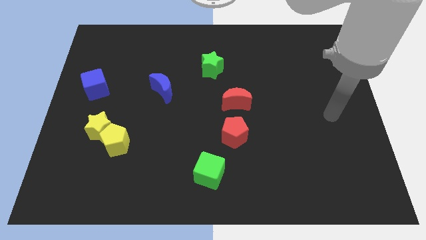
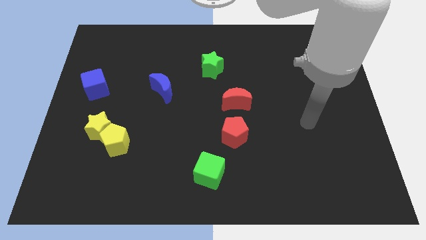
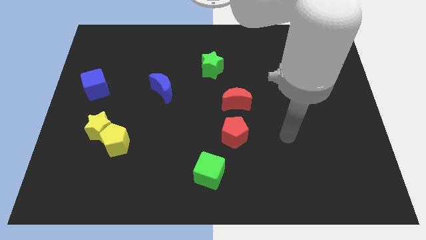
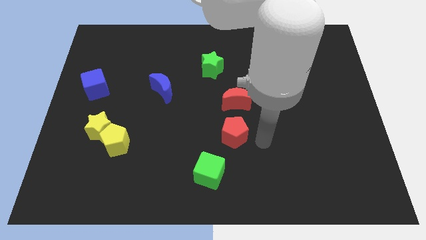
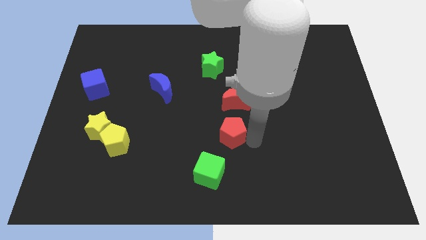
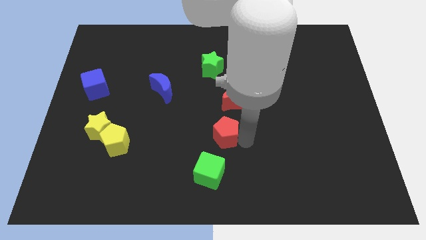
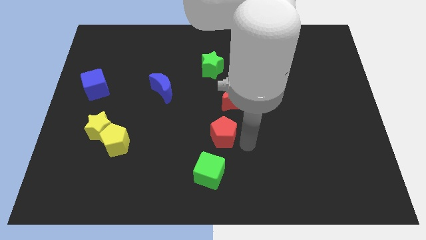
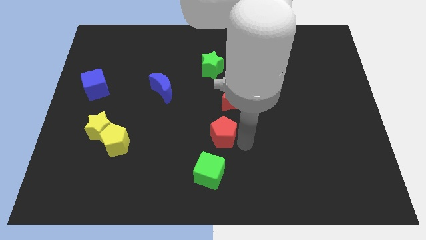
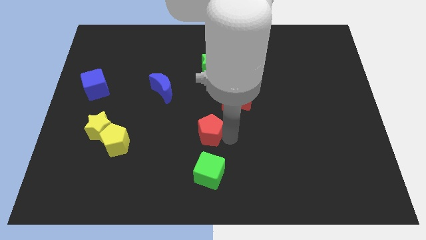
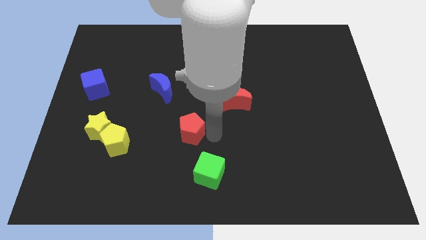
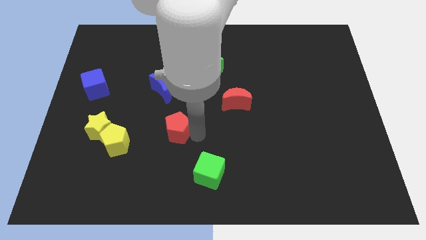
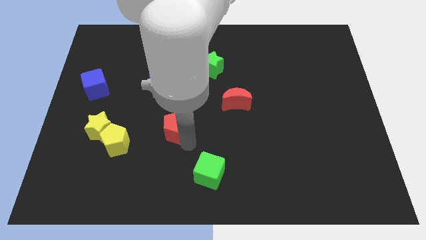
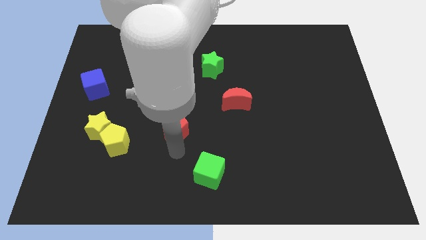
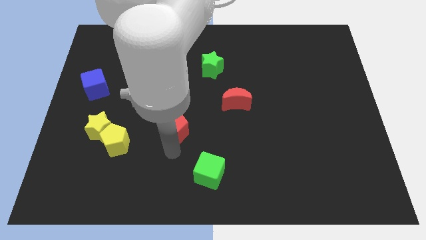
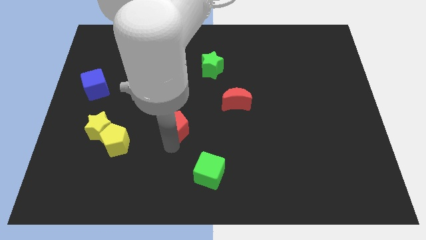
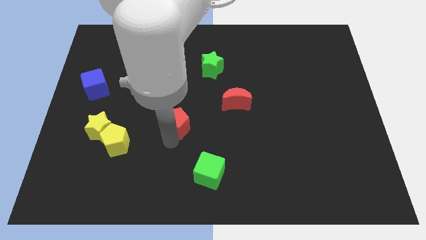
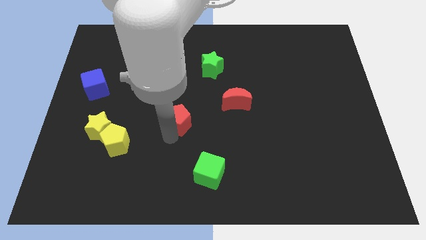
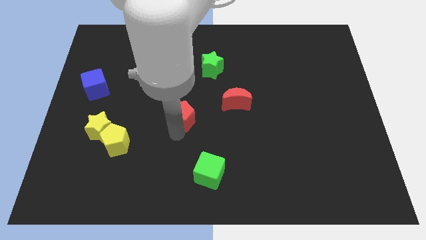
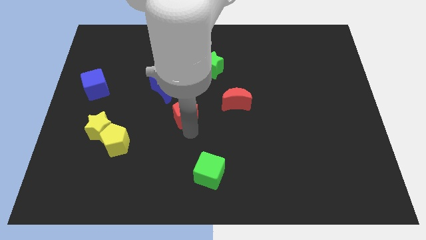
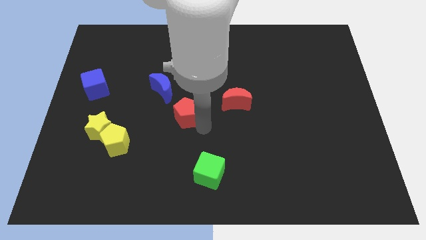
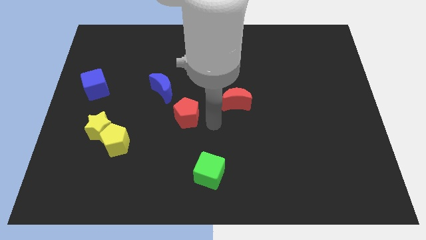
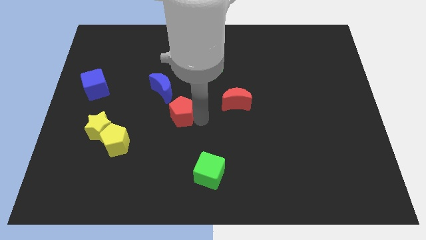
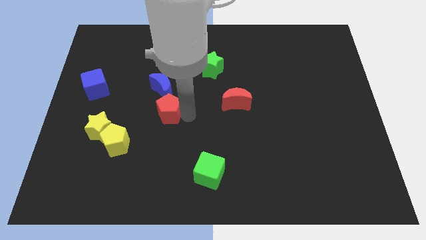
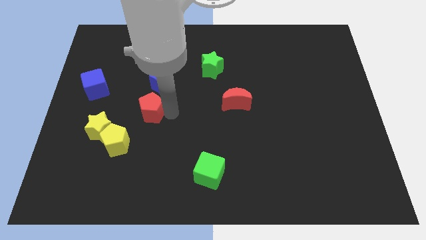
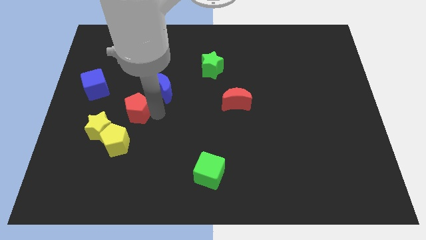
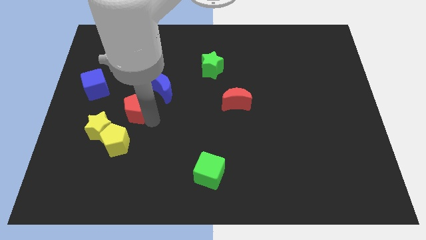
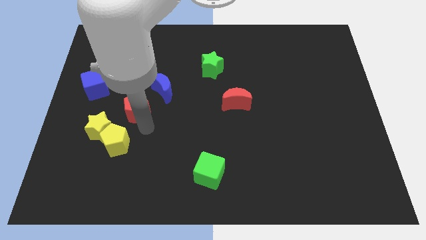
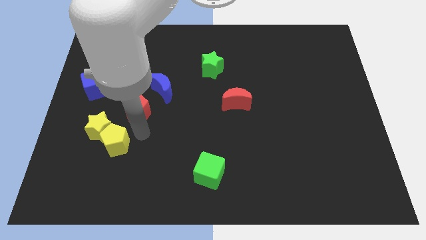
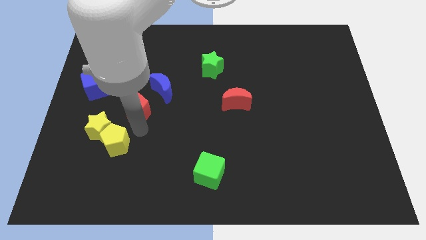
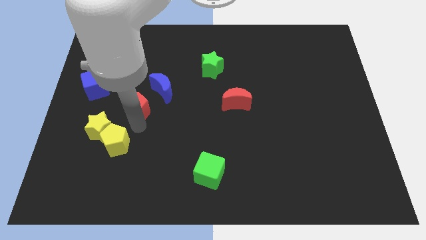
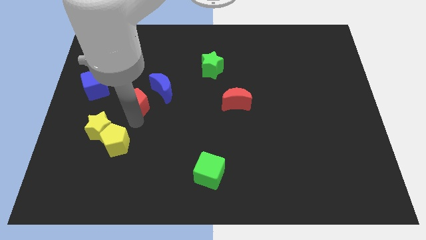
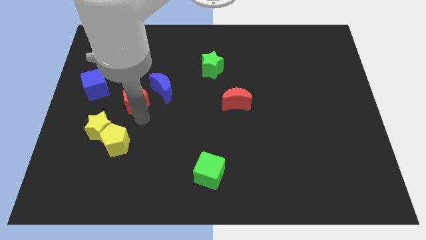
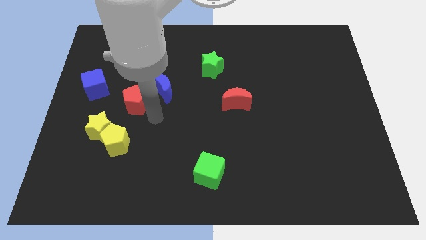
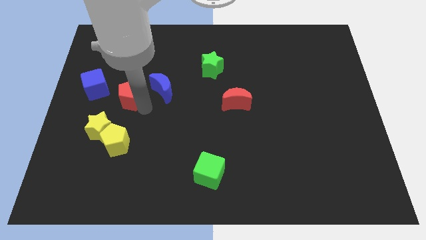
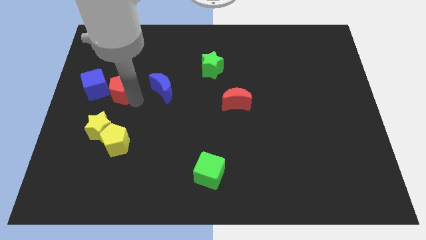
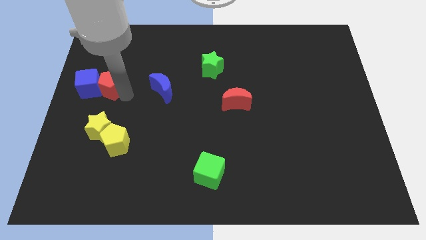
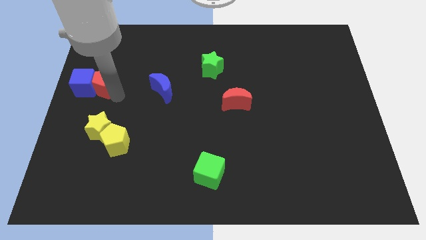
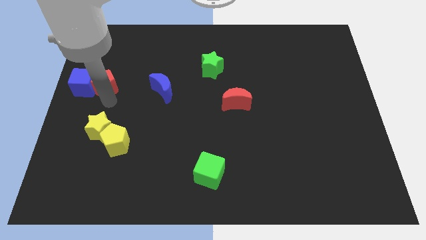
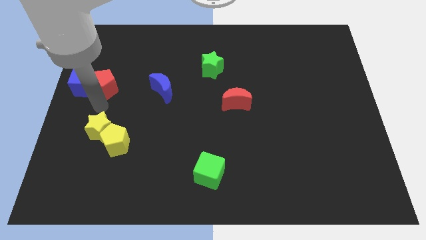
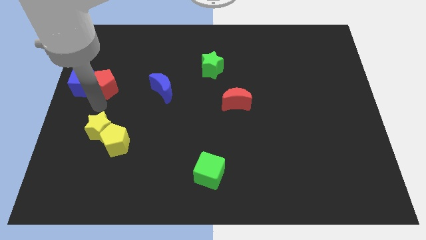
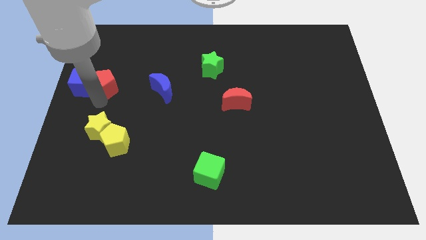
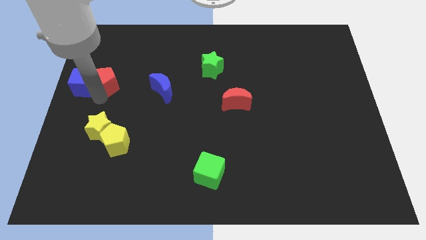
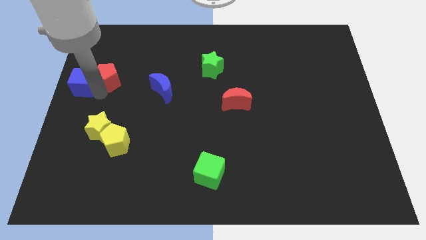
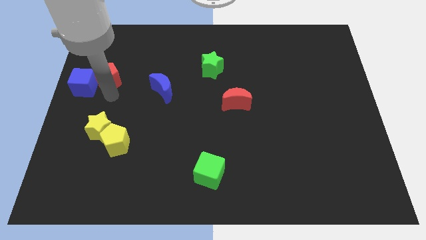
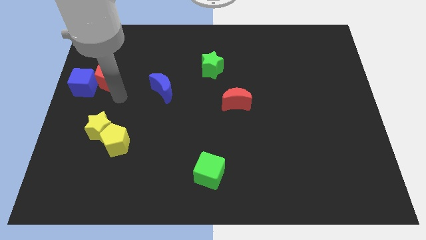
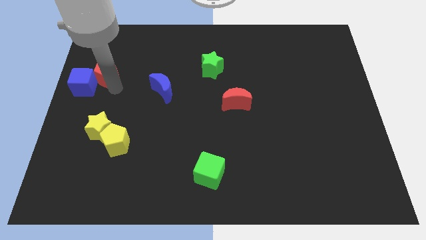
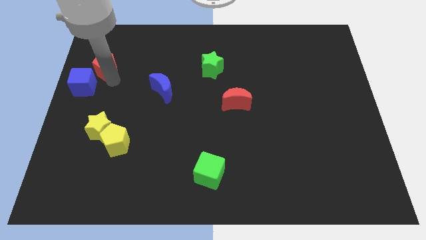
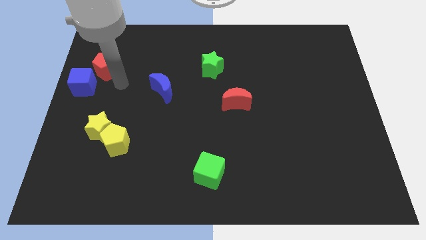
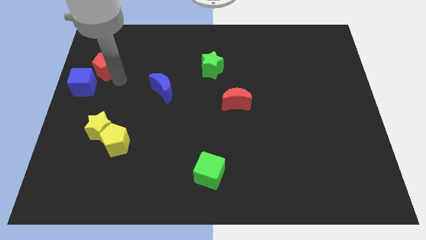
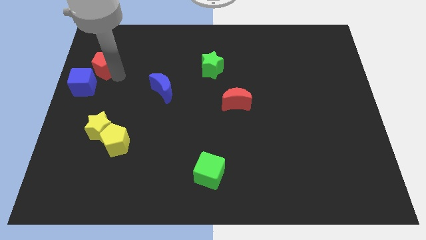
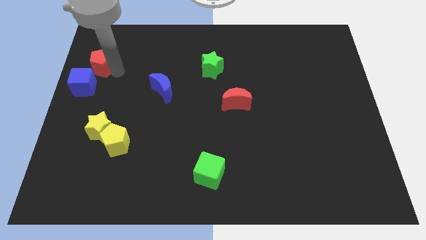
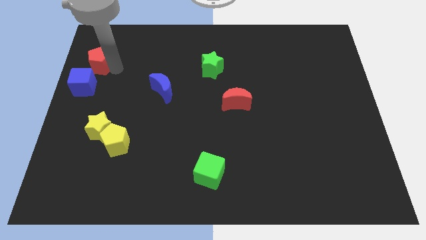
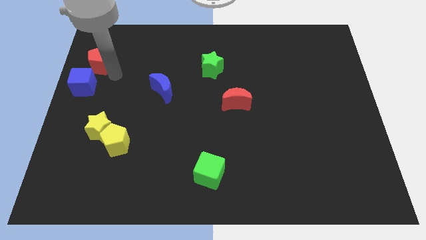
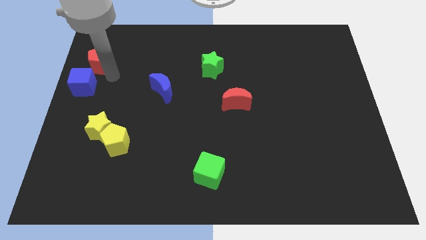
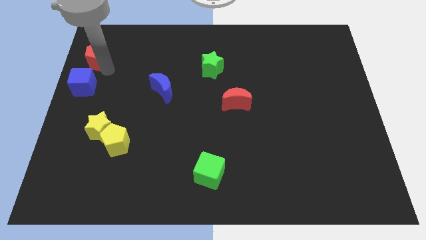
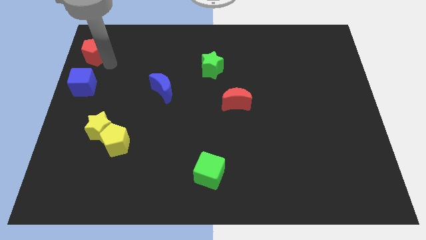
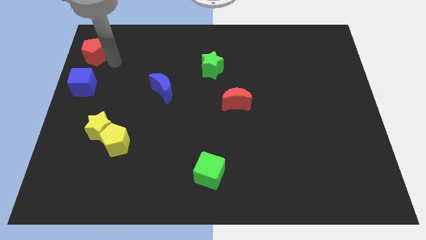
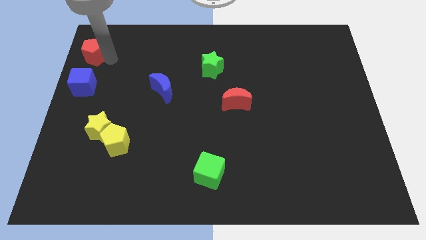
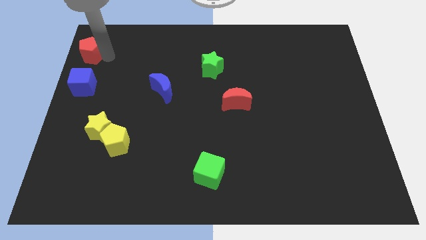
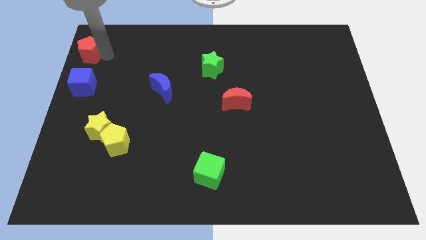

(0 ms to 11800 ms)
move the red pentagon to the top left corner

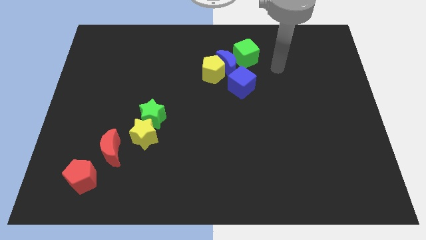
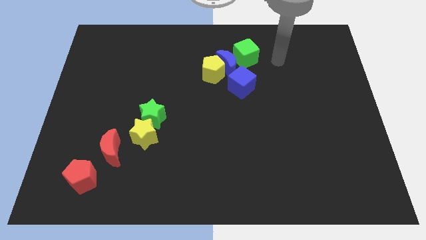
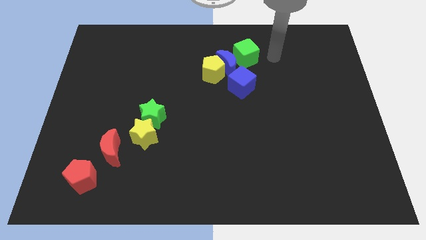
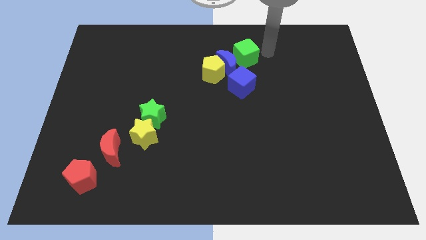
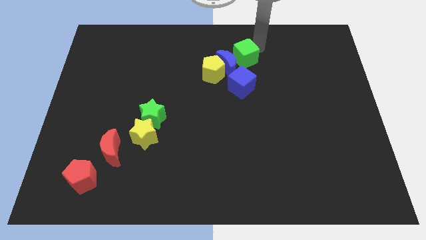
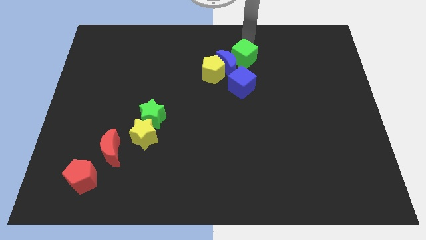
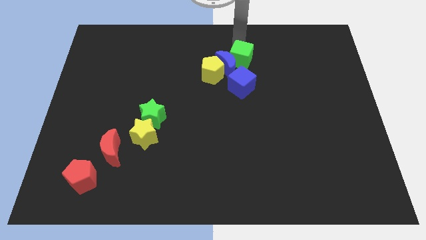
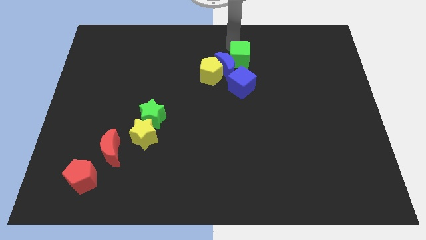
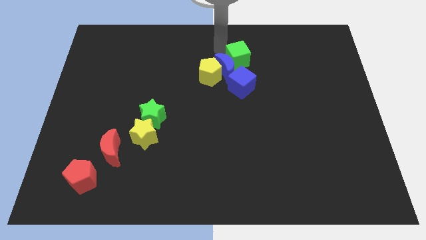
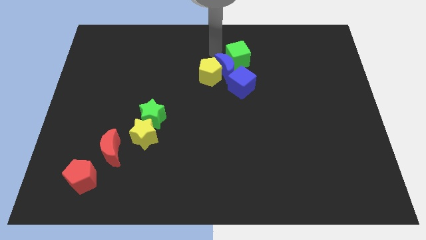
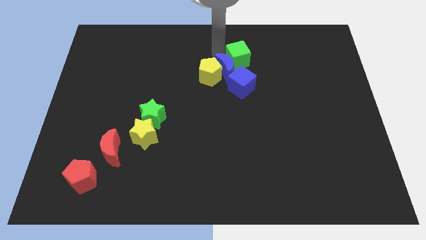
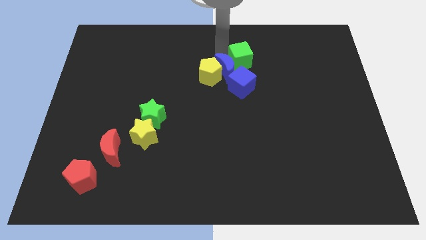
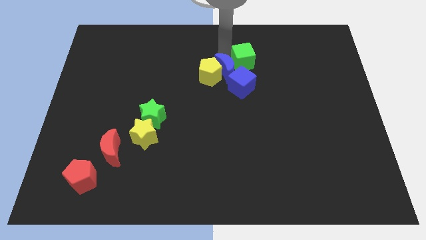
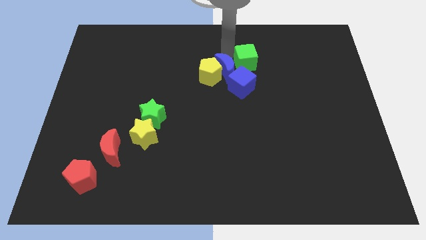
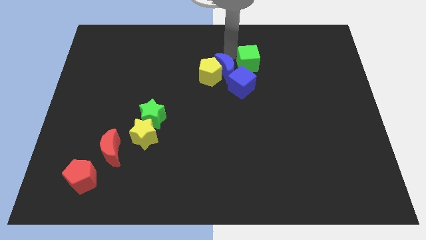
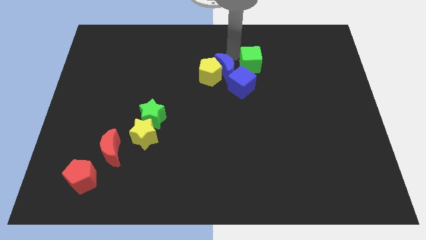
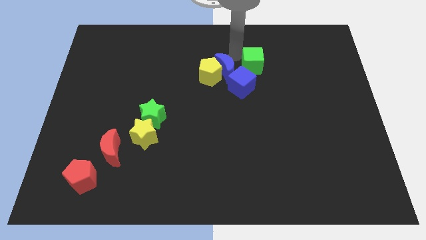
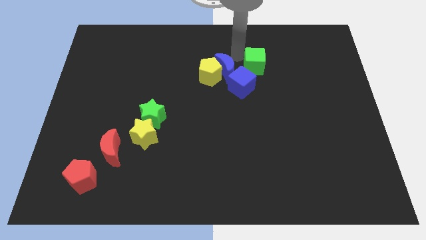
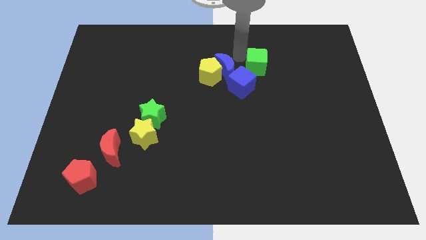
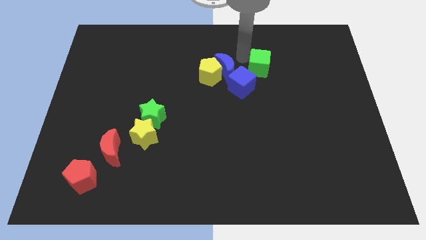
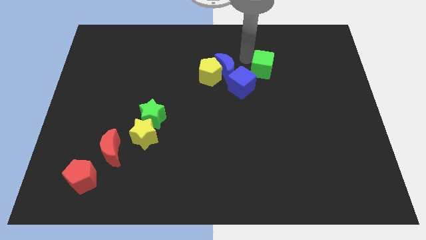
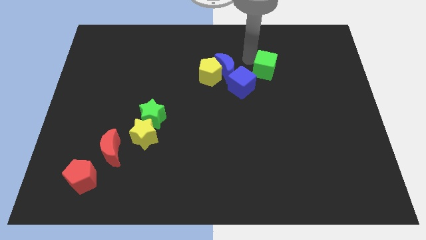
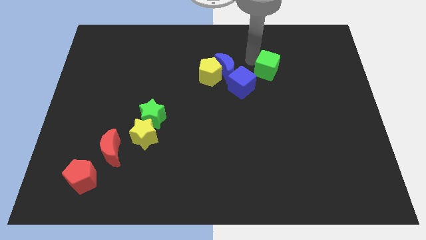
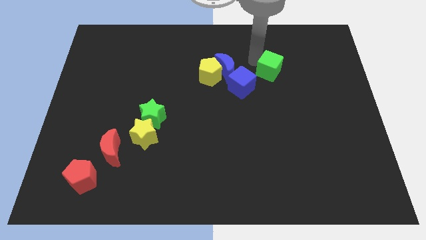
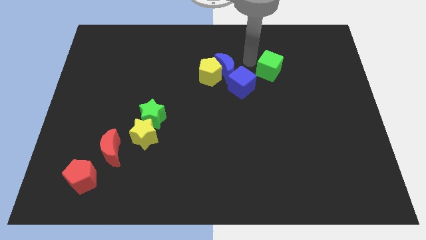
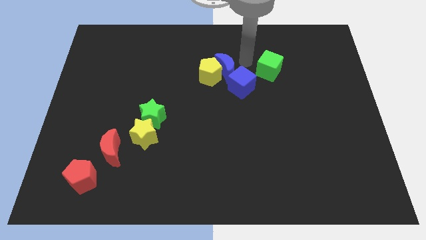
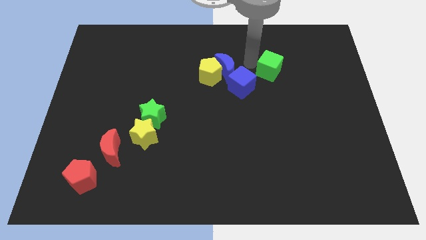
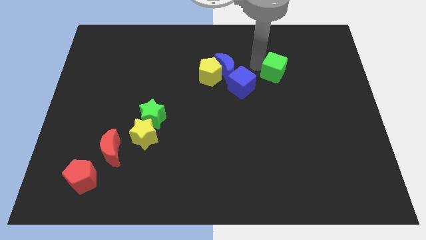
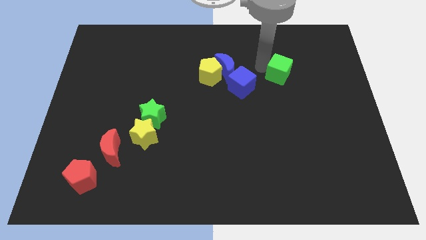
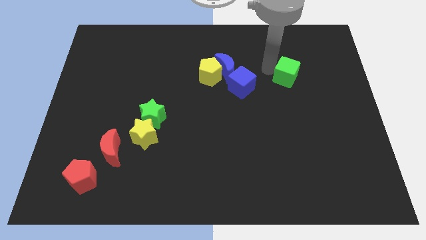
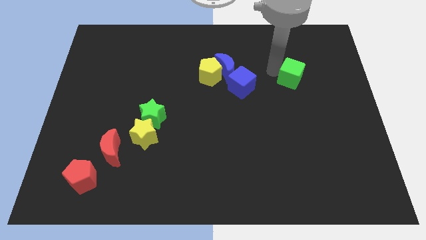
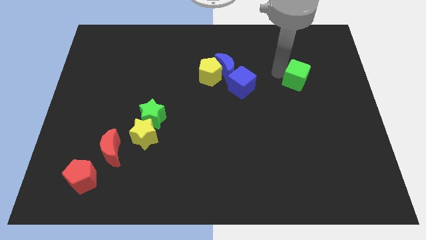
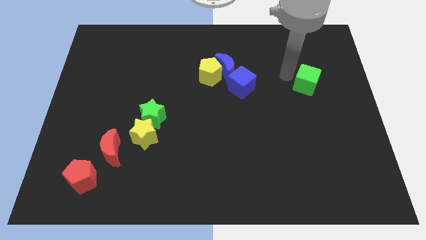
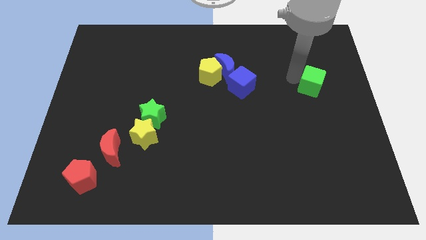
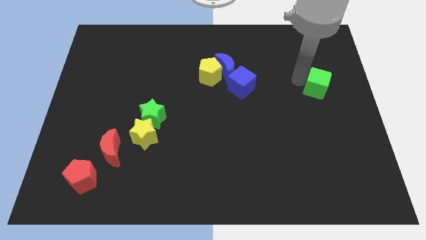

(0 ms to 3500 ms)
slide the green cube to the center right
